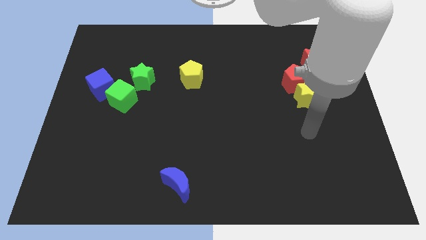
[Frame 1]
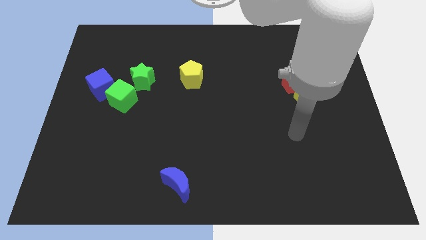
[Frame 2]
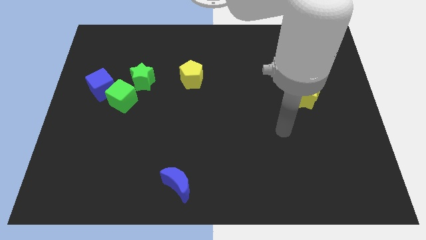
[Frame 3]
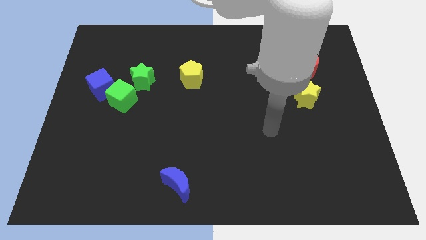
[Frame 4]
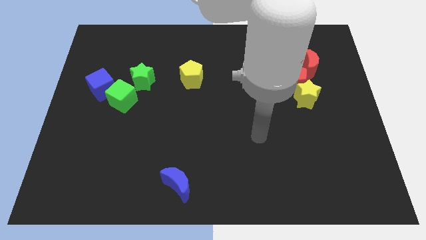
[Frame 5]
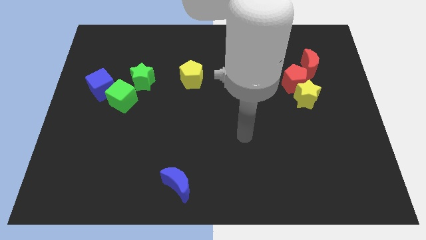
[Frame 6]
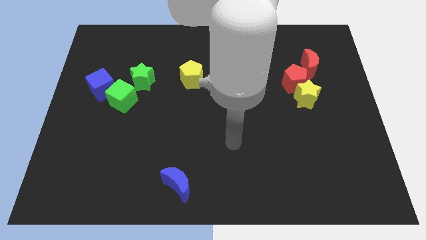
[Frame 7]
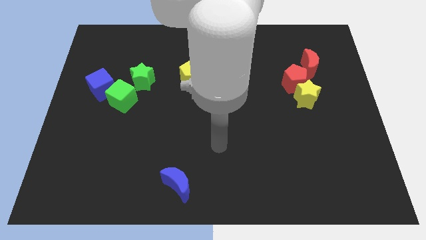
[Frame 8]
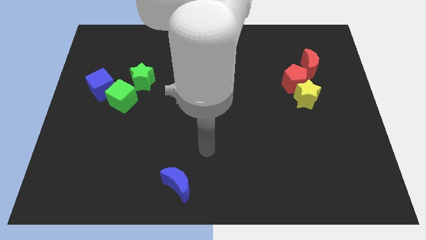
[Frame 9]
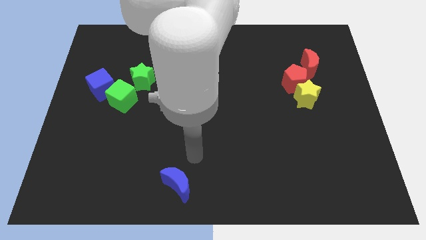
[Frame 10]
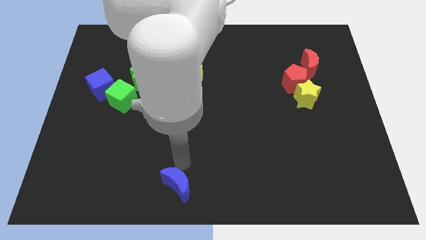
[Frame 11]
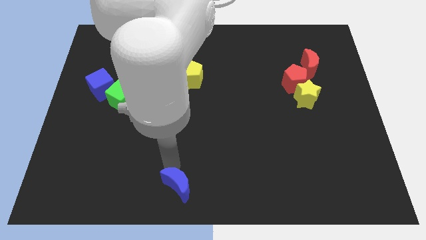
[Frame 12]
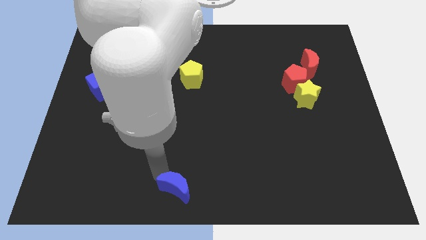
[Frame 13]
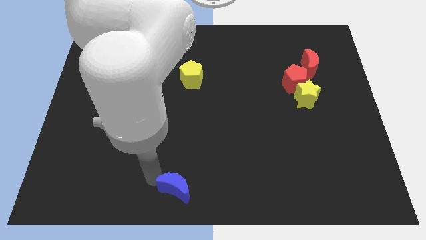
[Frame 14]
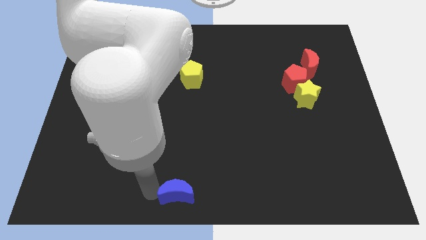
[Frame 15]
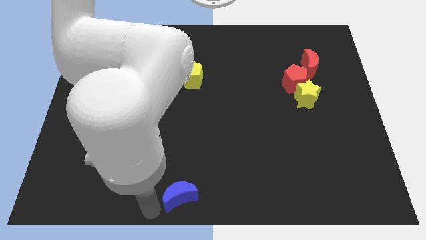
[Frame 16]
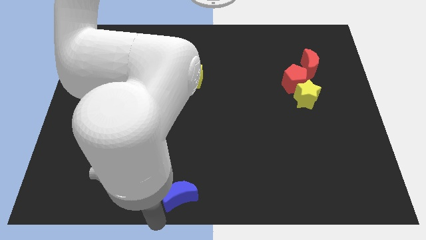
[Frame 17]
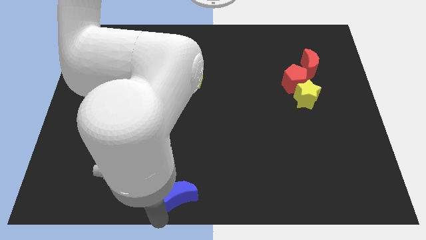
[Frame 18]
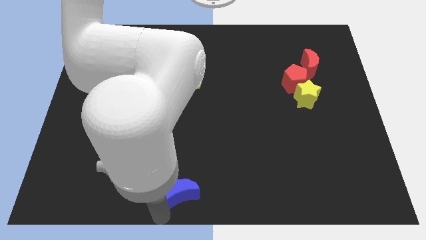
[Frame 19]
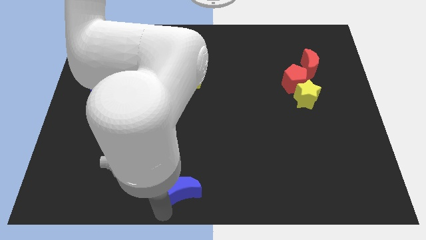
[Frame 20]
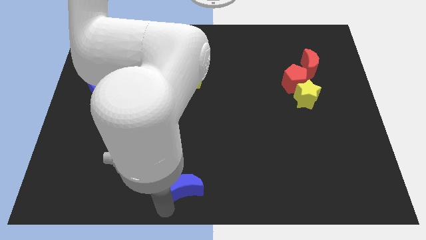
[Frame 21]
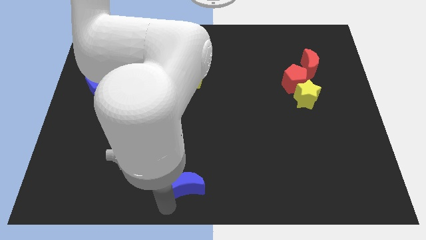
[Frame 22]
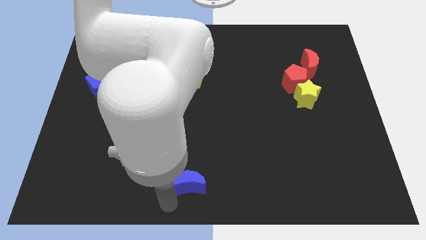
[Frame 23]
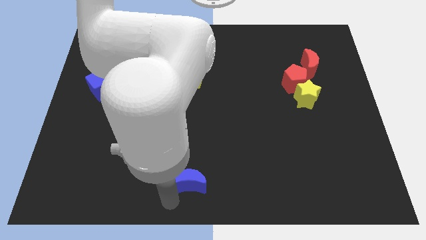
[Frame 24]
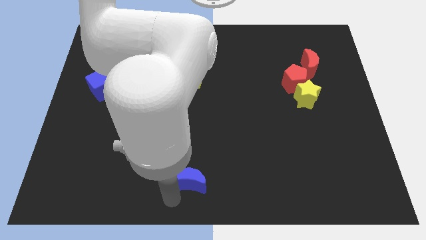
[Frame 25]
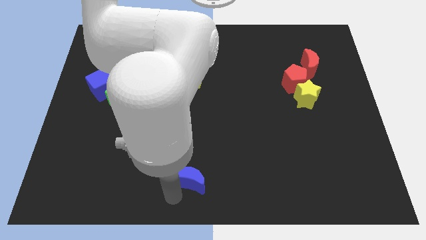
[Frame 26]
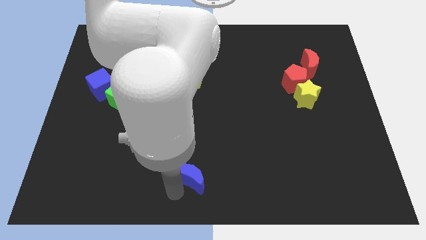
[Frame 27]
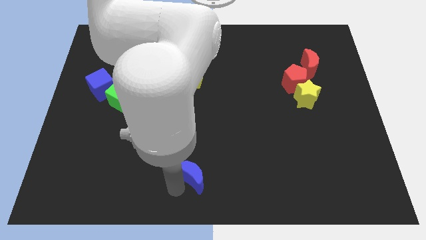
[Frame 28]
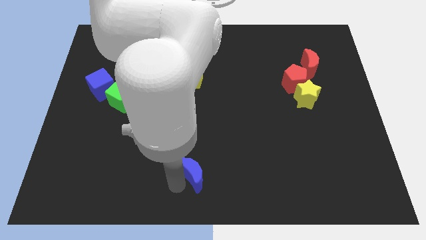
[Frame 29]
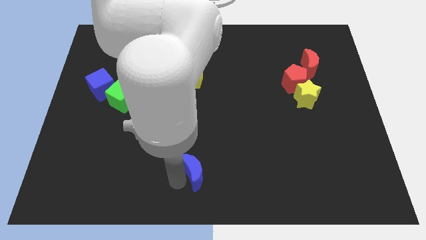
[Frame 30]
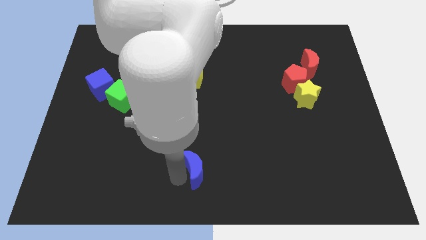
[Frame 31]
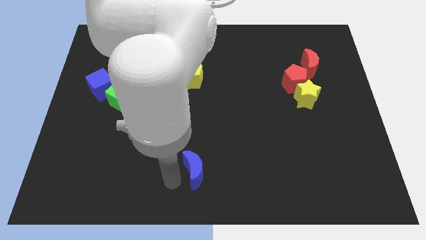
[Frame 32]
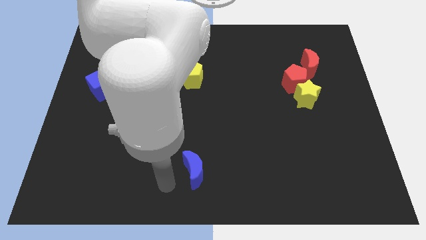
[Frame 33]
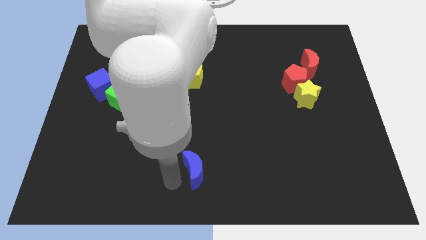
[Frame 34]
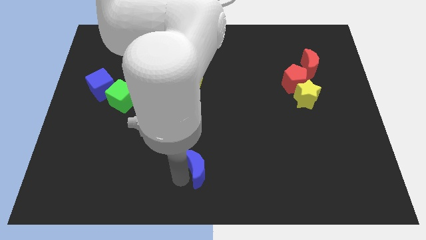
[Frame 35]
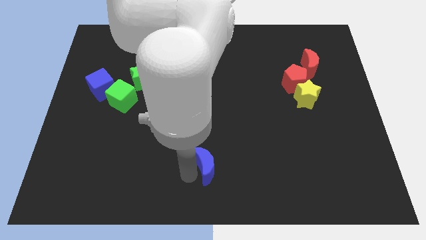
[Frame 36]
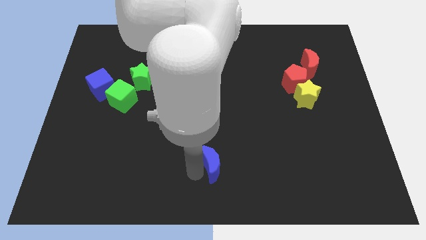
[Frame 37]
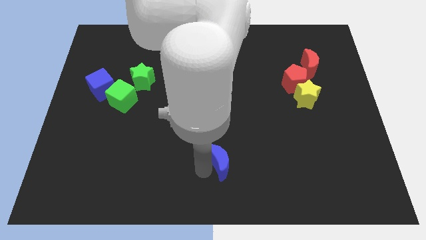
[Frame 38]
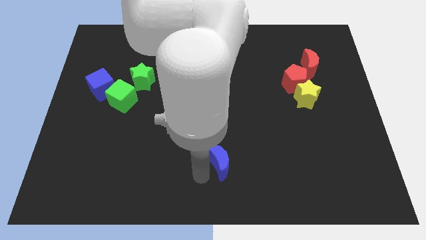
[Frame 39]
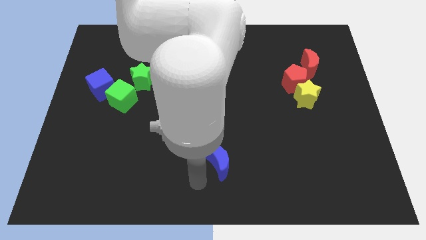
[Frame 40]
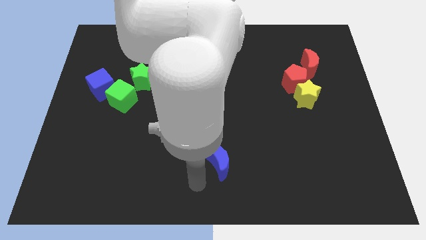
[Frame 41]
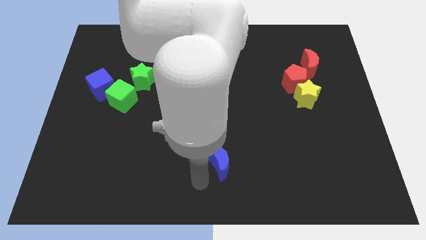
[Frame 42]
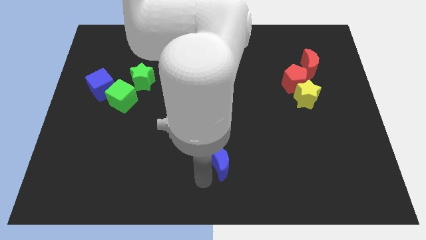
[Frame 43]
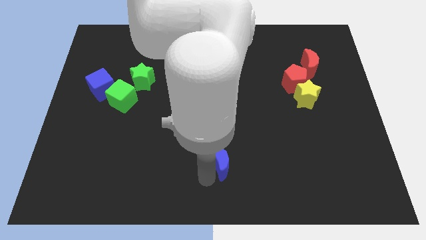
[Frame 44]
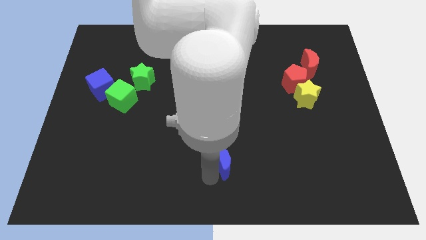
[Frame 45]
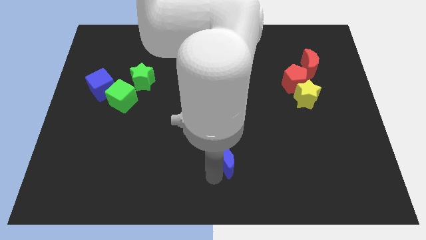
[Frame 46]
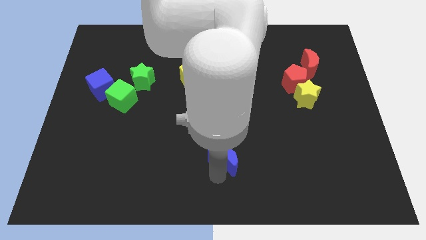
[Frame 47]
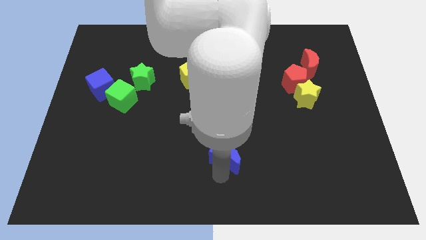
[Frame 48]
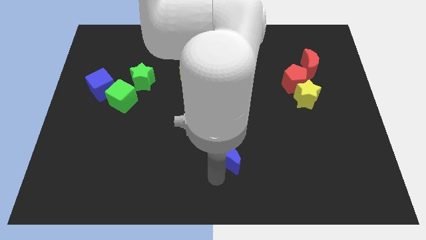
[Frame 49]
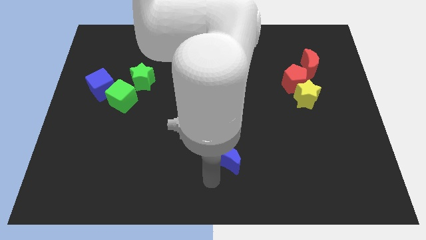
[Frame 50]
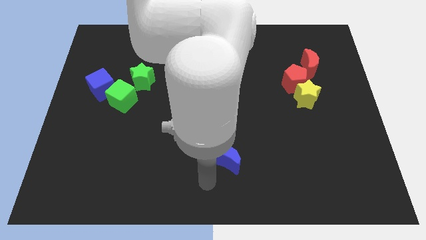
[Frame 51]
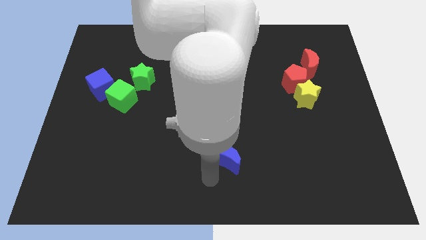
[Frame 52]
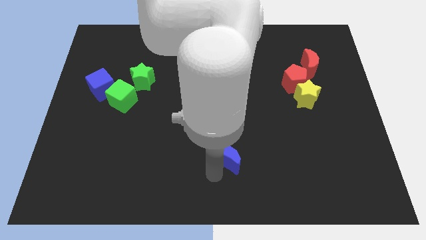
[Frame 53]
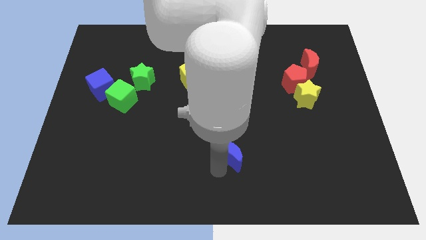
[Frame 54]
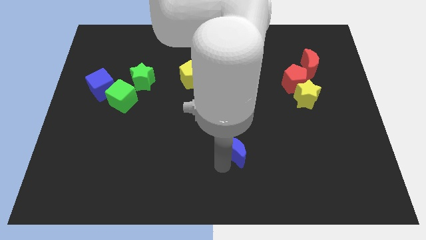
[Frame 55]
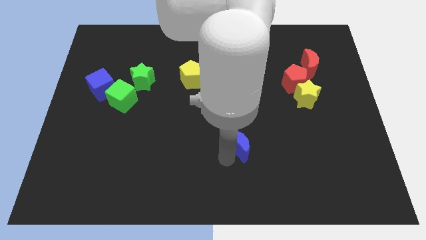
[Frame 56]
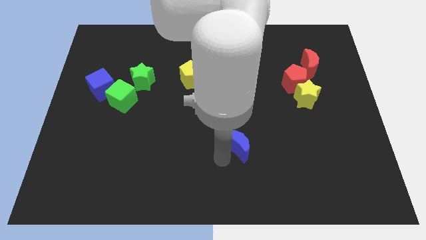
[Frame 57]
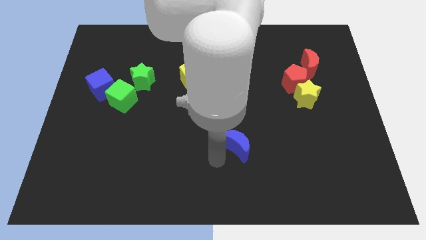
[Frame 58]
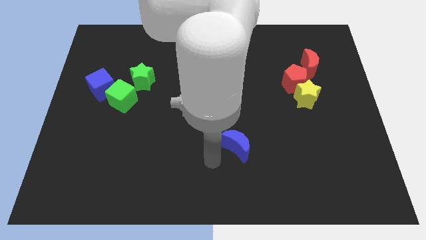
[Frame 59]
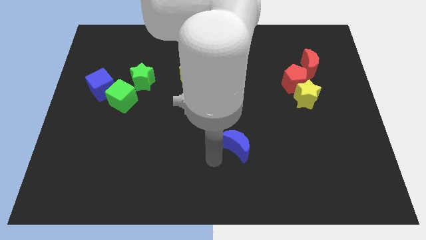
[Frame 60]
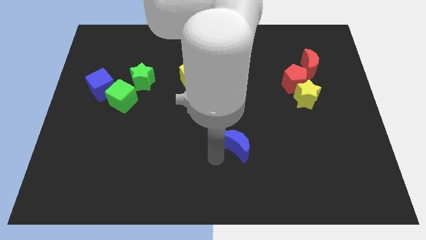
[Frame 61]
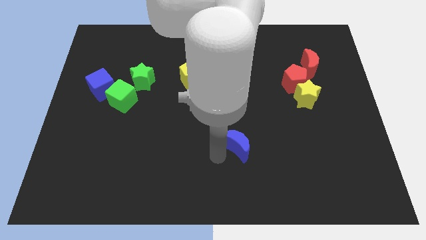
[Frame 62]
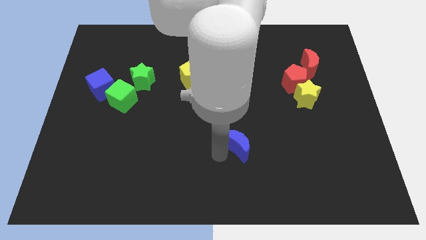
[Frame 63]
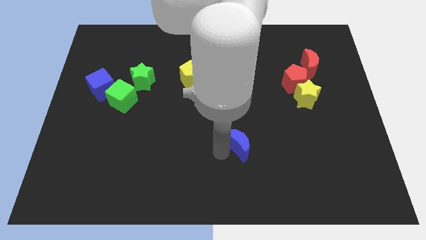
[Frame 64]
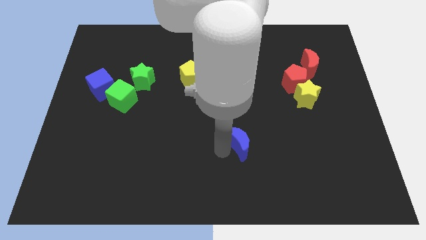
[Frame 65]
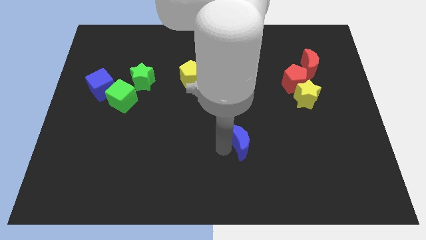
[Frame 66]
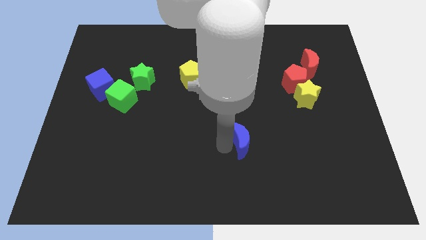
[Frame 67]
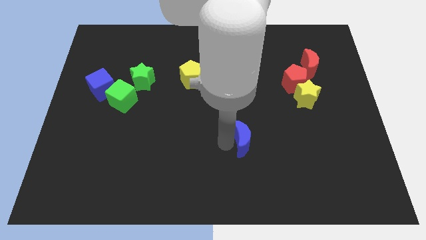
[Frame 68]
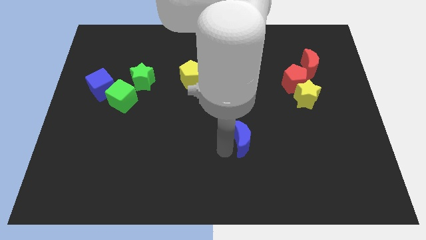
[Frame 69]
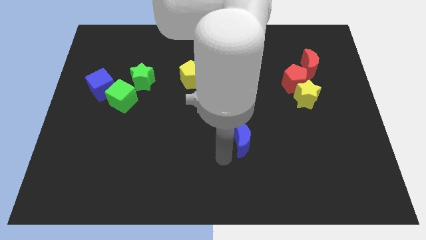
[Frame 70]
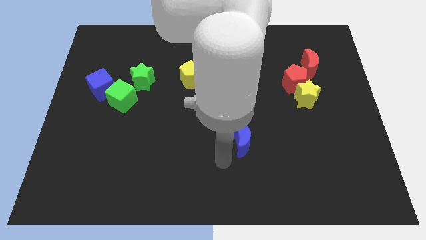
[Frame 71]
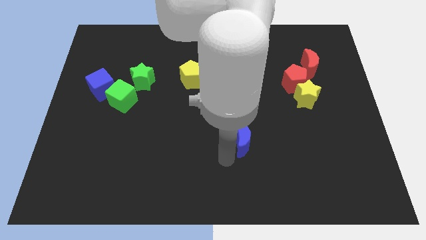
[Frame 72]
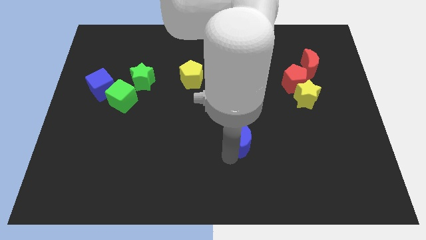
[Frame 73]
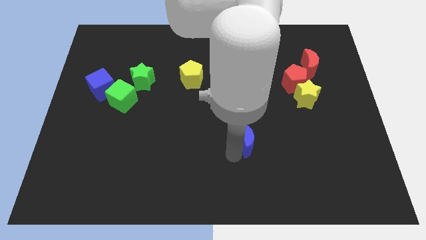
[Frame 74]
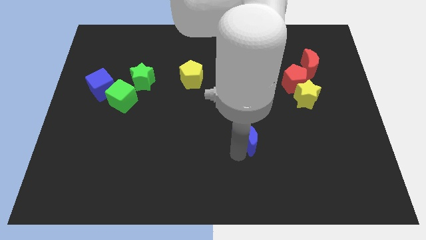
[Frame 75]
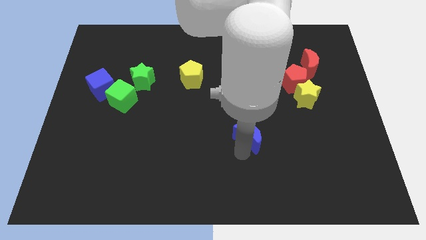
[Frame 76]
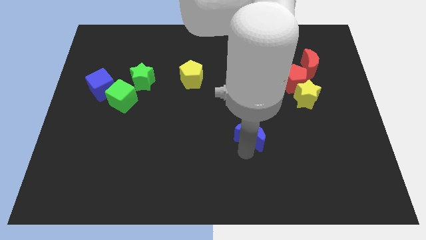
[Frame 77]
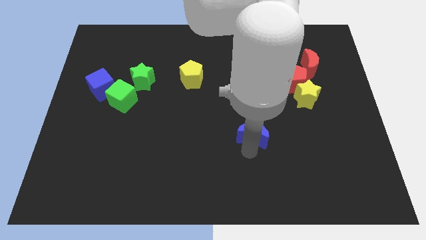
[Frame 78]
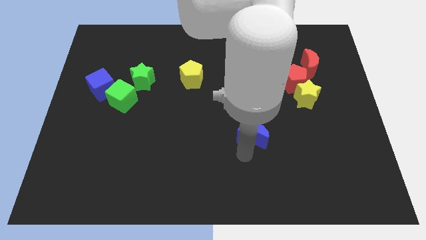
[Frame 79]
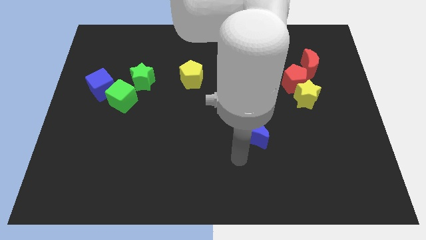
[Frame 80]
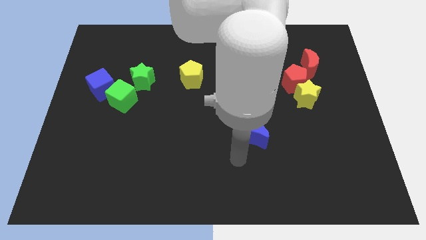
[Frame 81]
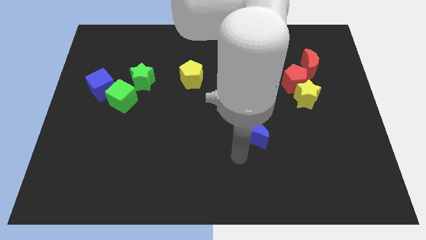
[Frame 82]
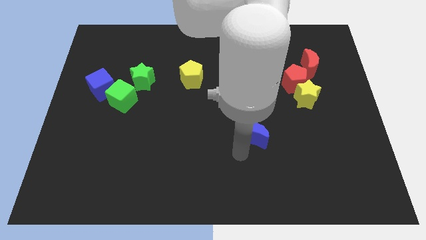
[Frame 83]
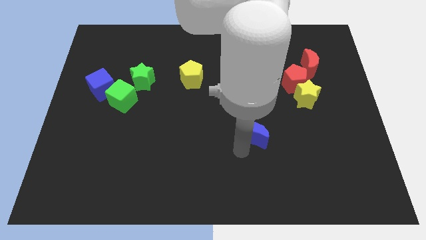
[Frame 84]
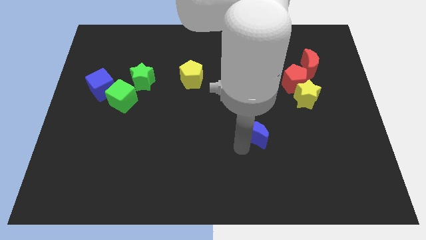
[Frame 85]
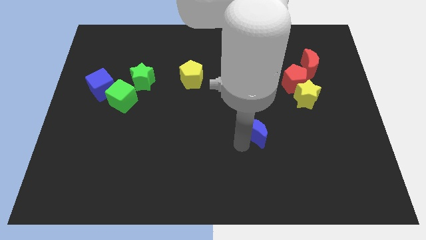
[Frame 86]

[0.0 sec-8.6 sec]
push the blue moon up and to the right diagonally
